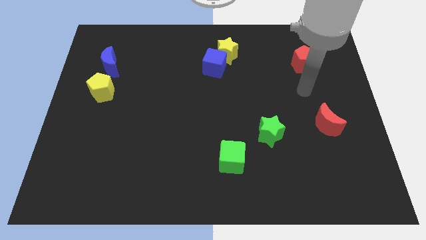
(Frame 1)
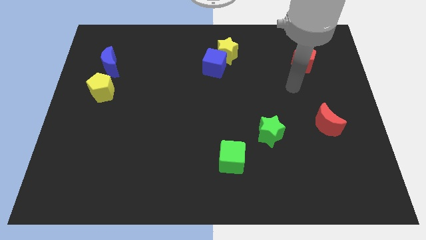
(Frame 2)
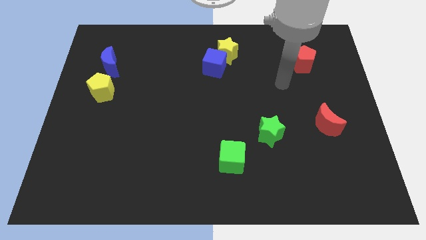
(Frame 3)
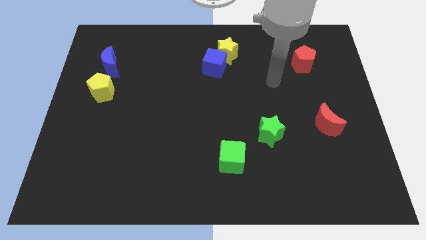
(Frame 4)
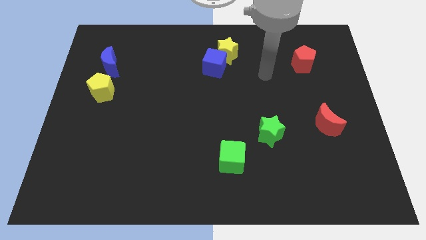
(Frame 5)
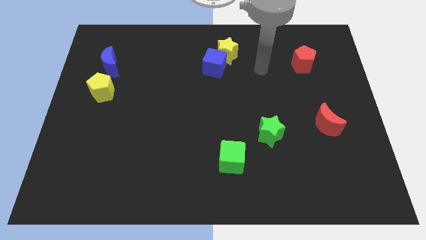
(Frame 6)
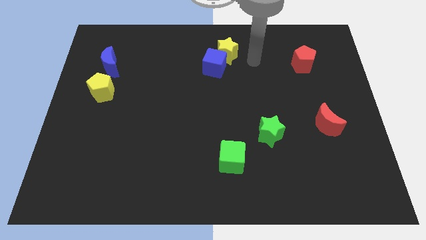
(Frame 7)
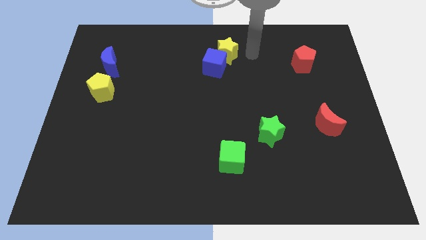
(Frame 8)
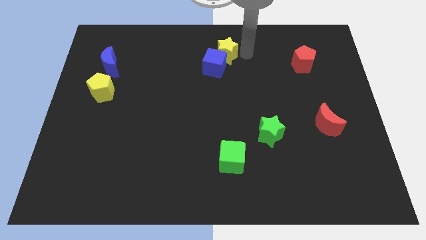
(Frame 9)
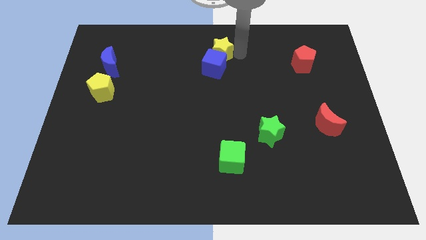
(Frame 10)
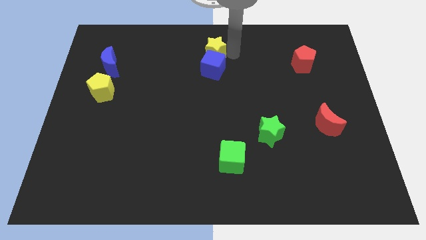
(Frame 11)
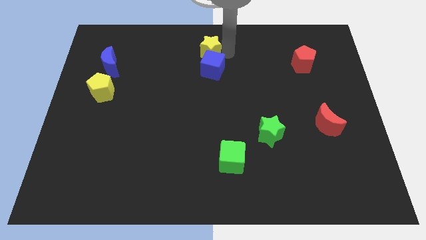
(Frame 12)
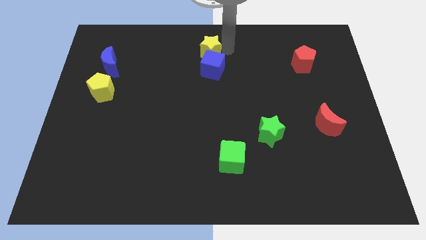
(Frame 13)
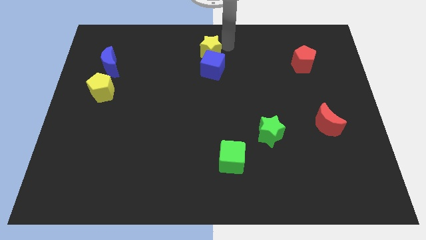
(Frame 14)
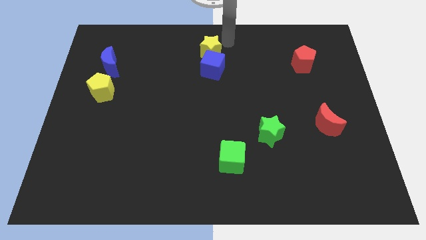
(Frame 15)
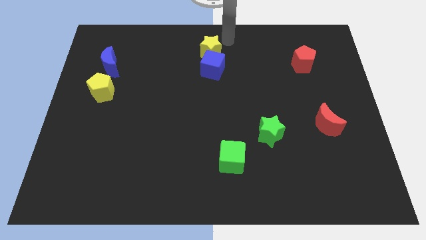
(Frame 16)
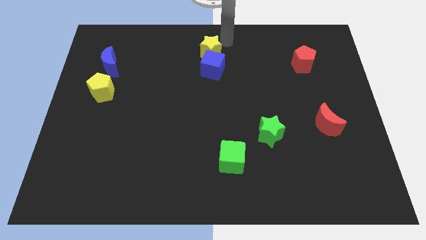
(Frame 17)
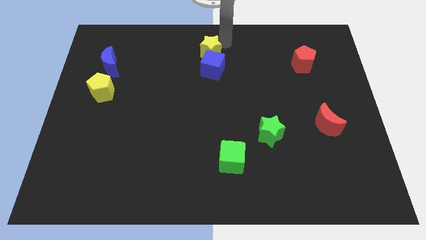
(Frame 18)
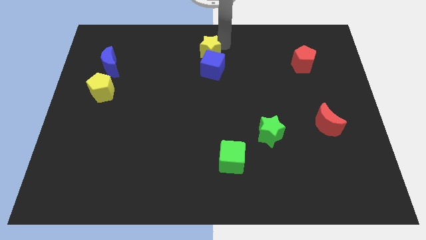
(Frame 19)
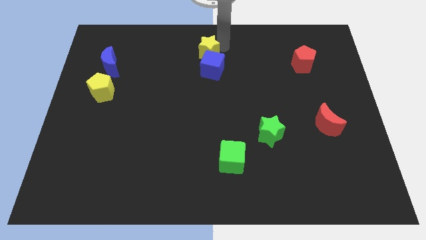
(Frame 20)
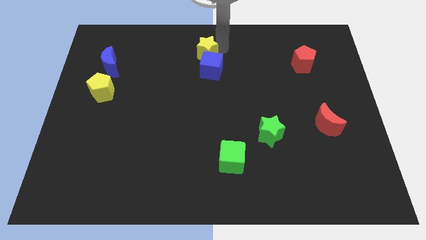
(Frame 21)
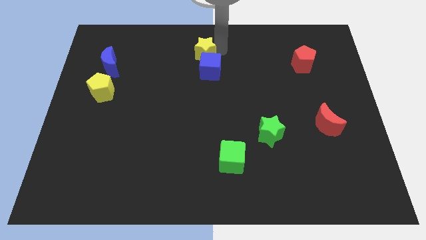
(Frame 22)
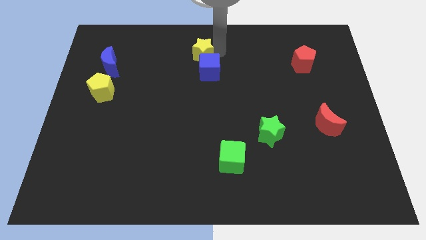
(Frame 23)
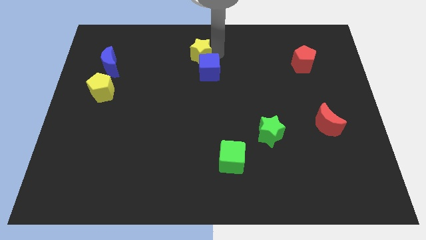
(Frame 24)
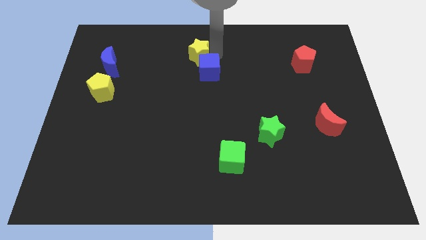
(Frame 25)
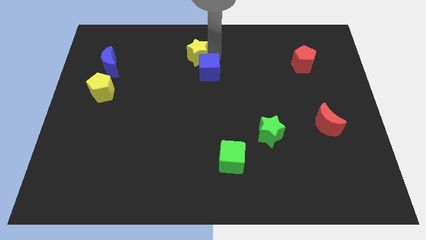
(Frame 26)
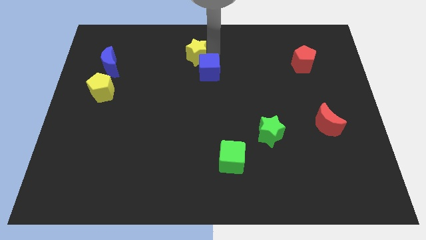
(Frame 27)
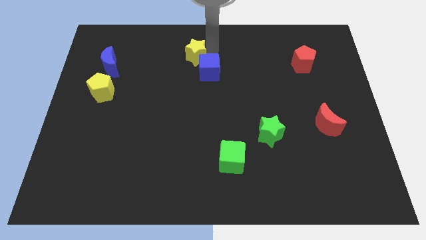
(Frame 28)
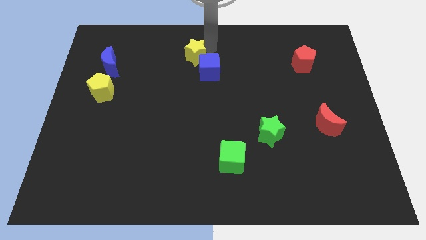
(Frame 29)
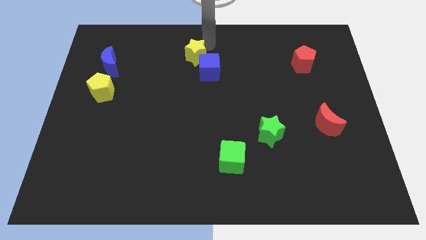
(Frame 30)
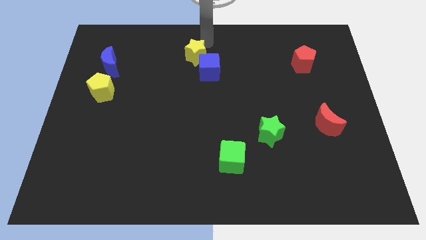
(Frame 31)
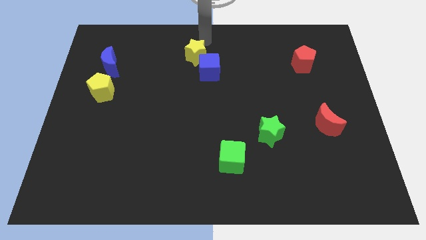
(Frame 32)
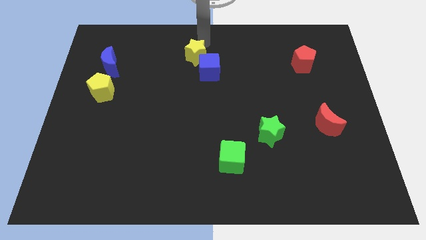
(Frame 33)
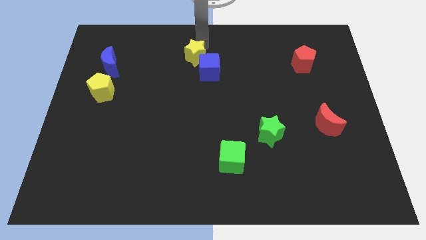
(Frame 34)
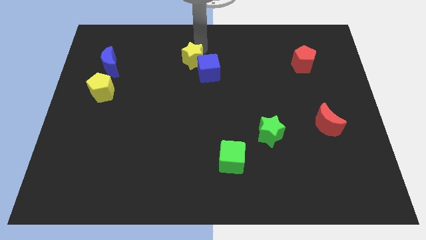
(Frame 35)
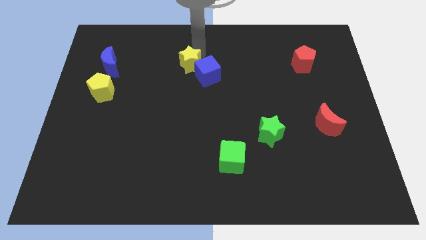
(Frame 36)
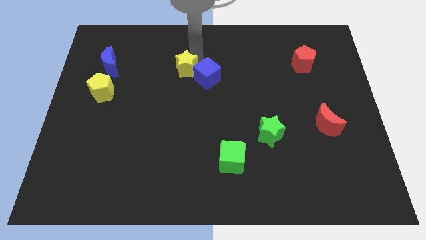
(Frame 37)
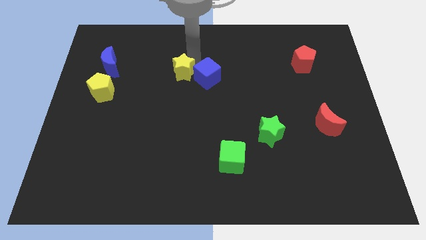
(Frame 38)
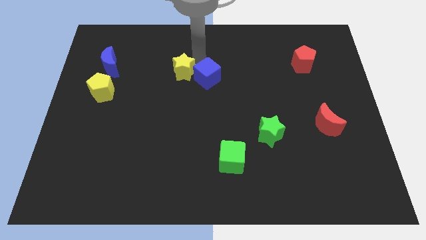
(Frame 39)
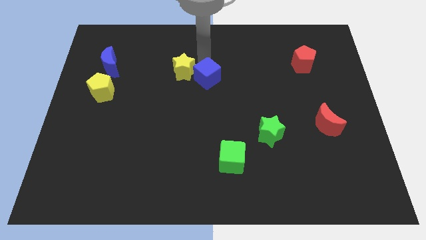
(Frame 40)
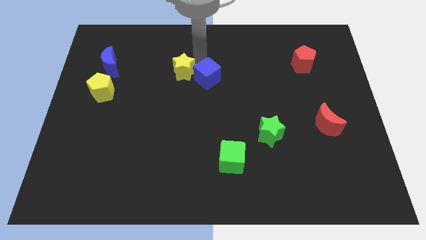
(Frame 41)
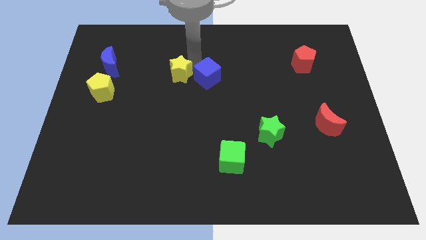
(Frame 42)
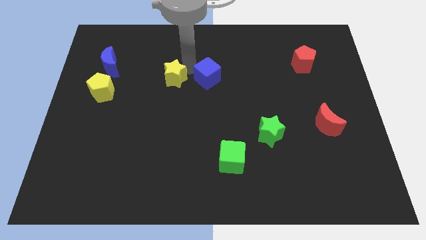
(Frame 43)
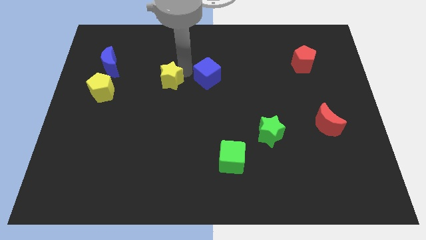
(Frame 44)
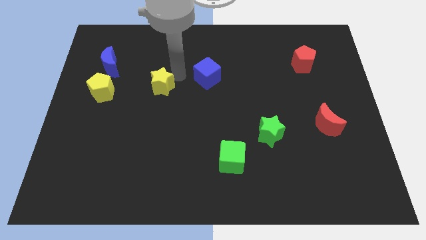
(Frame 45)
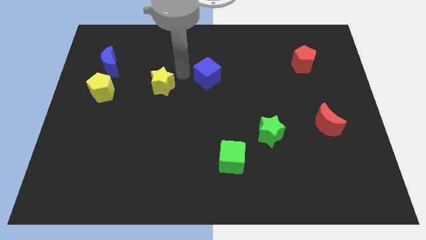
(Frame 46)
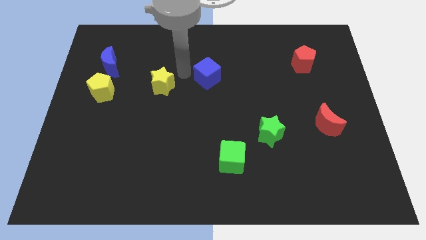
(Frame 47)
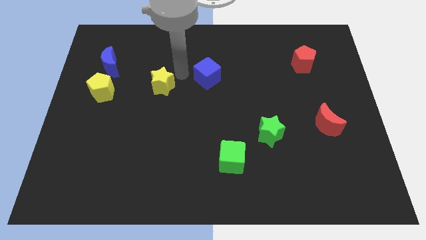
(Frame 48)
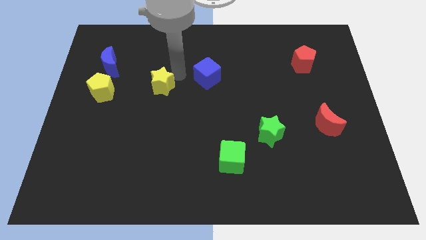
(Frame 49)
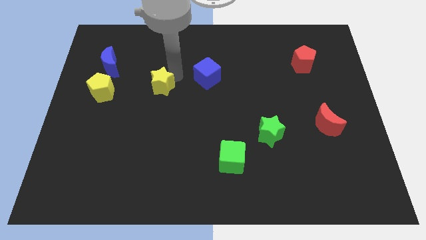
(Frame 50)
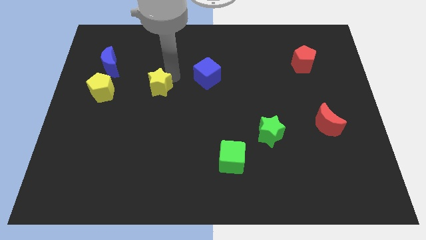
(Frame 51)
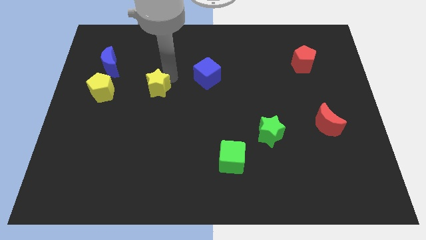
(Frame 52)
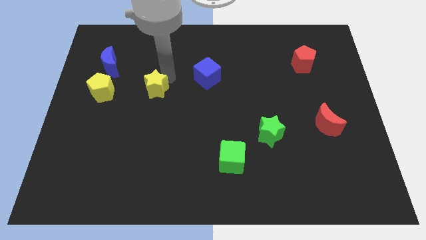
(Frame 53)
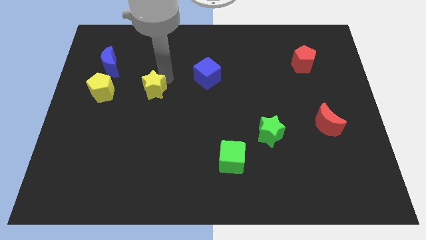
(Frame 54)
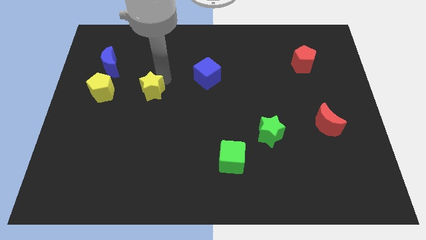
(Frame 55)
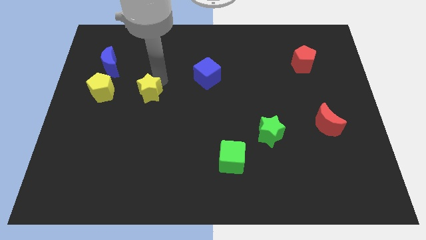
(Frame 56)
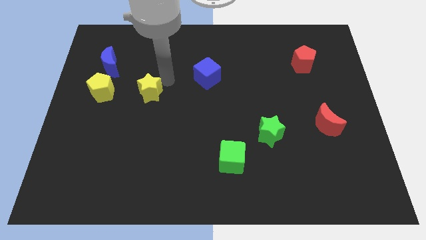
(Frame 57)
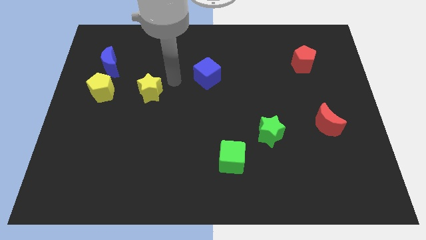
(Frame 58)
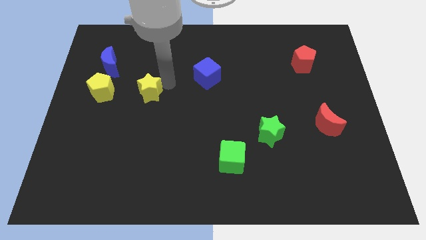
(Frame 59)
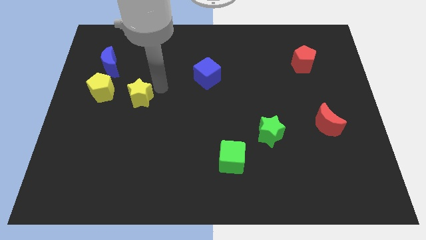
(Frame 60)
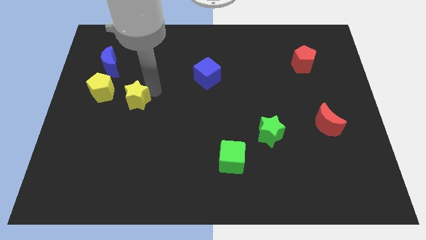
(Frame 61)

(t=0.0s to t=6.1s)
slide the yellow star to the bottom right side of the yellow pentagon

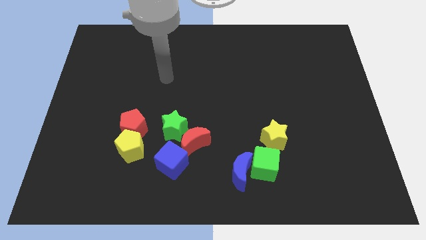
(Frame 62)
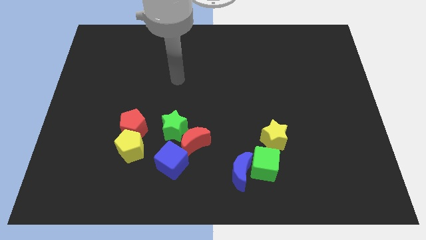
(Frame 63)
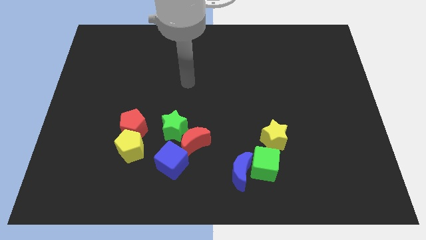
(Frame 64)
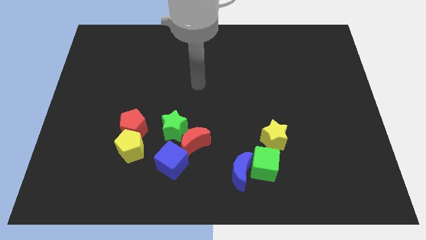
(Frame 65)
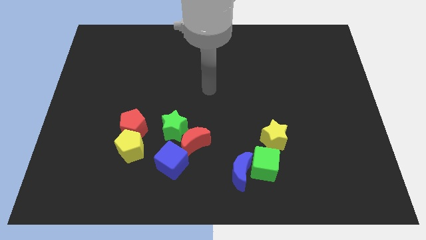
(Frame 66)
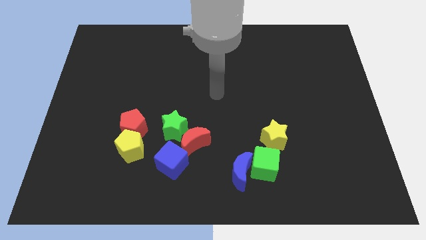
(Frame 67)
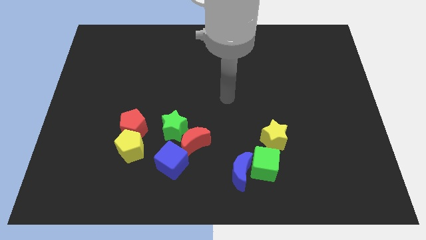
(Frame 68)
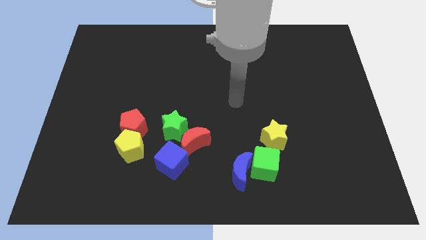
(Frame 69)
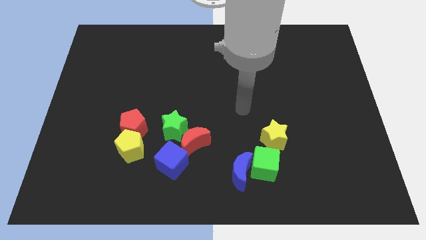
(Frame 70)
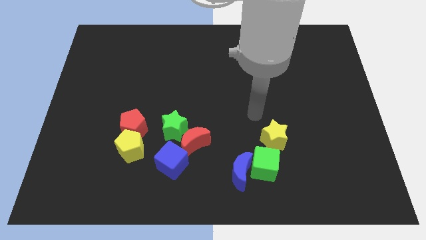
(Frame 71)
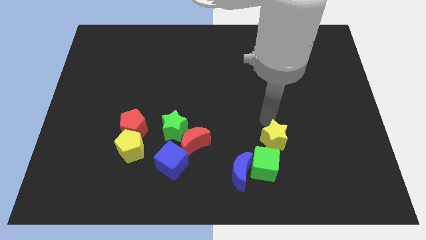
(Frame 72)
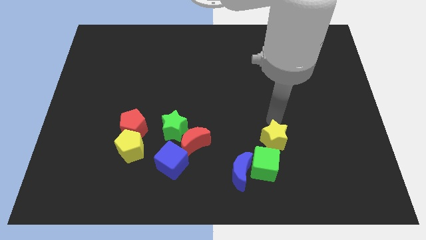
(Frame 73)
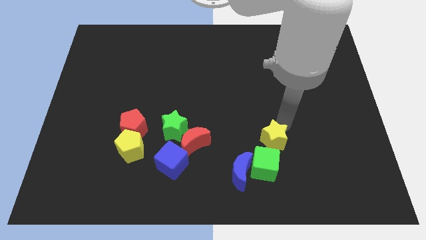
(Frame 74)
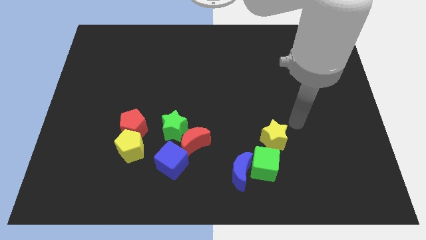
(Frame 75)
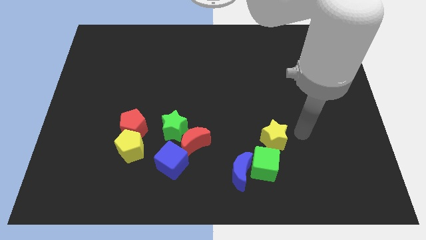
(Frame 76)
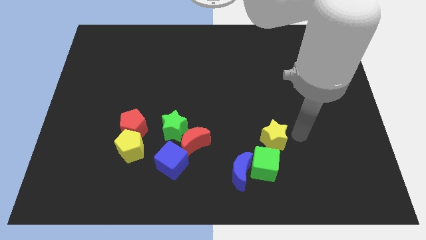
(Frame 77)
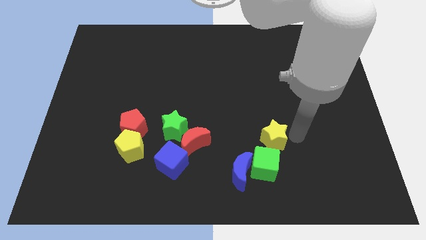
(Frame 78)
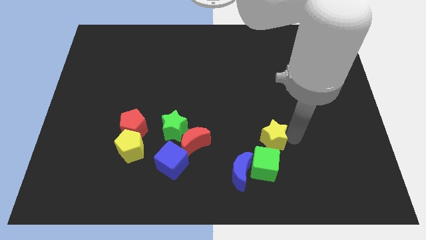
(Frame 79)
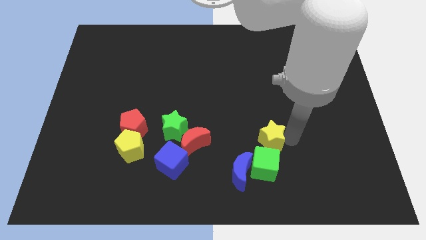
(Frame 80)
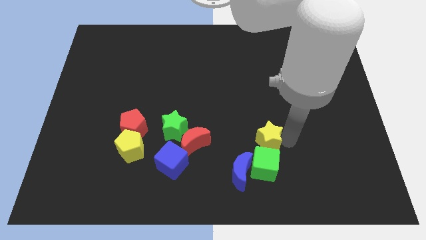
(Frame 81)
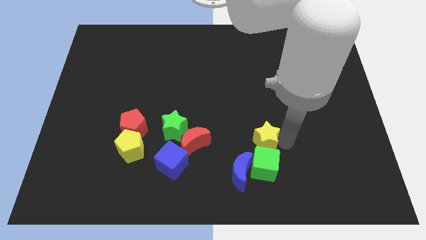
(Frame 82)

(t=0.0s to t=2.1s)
slide the yellow star just right of the red moon
